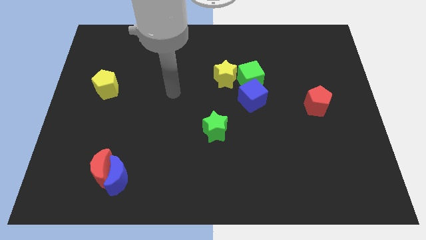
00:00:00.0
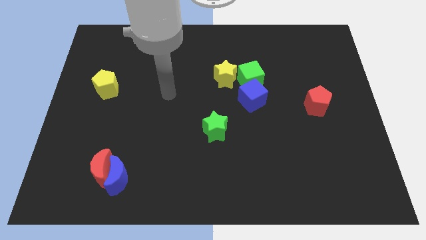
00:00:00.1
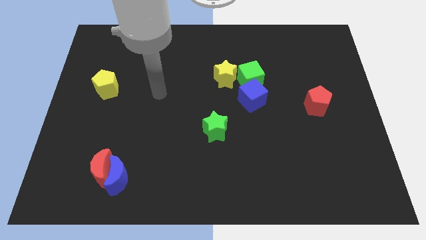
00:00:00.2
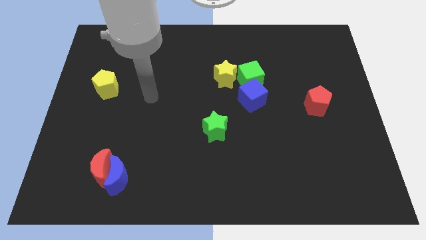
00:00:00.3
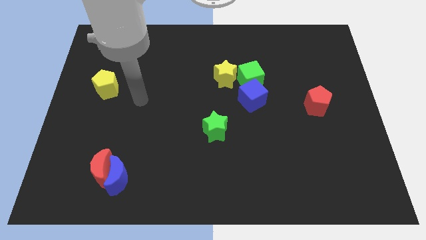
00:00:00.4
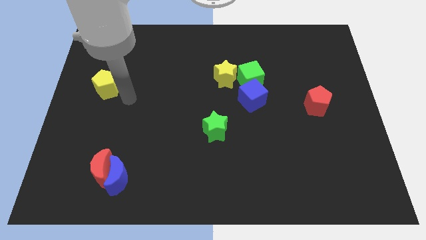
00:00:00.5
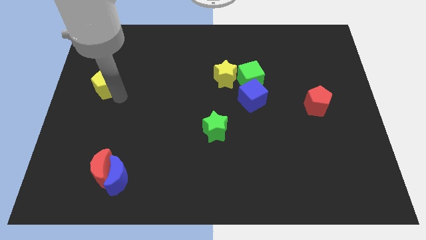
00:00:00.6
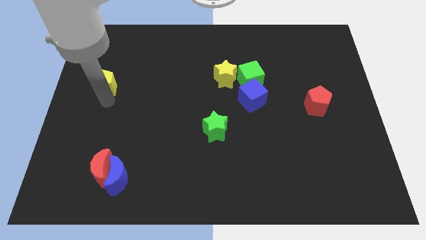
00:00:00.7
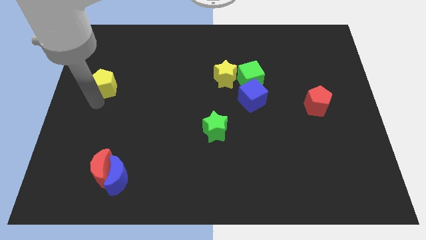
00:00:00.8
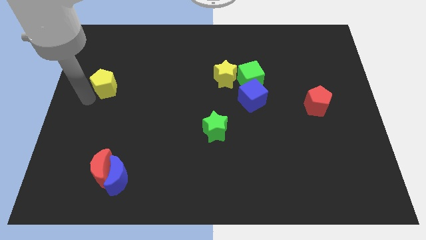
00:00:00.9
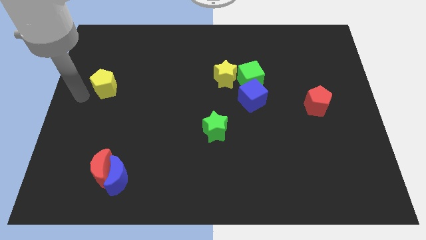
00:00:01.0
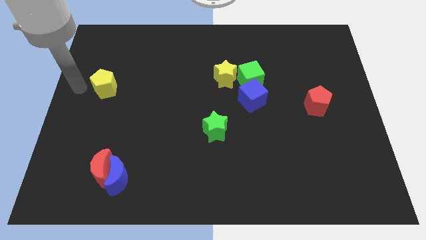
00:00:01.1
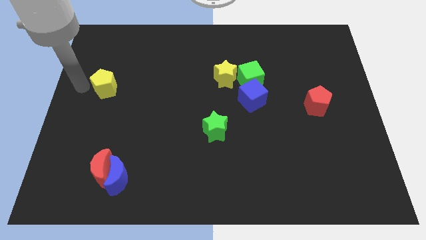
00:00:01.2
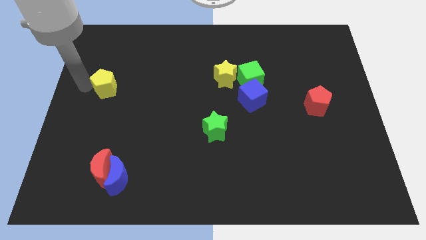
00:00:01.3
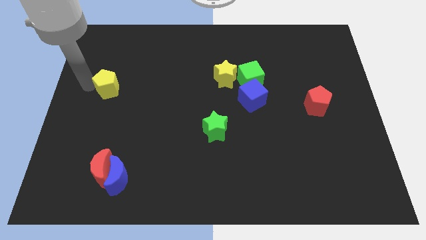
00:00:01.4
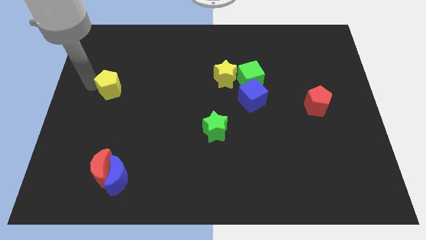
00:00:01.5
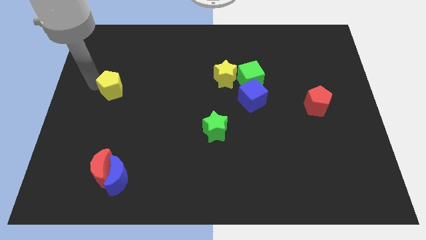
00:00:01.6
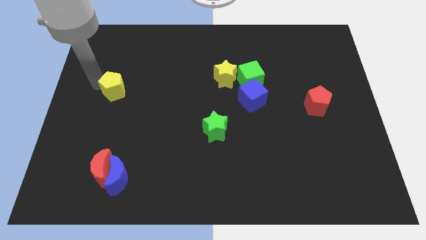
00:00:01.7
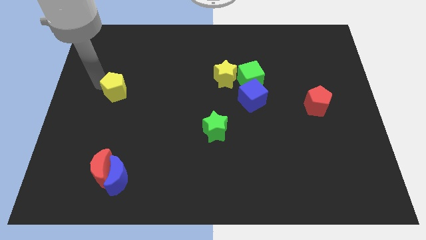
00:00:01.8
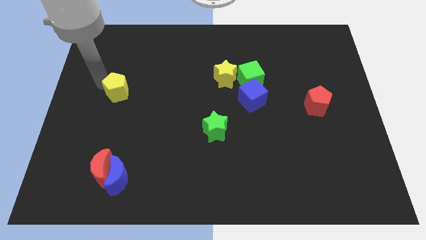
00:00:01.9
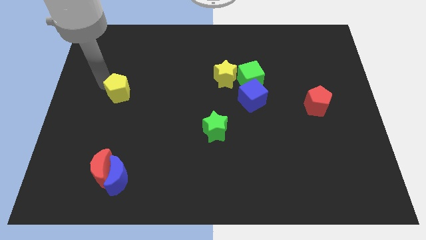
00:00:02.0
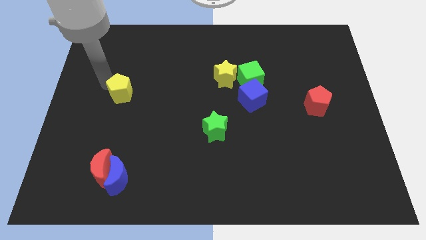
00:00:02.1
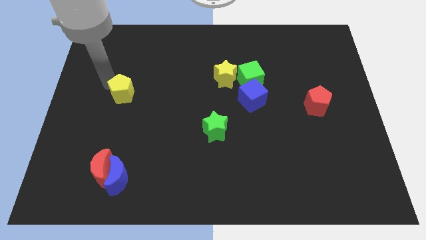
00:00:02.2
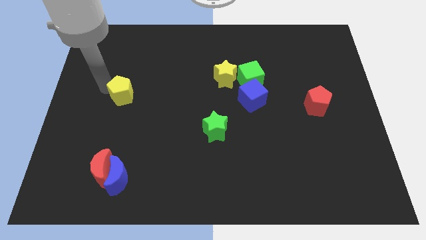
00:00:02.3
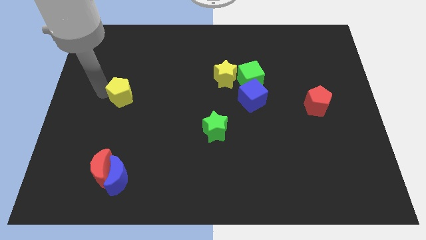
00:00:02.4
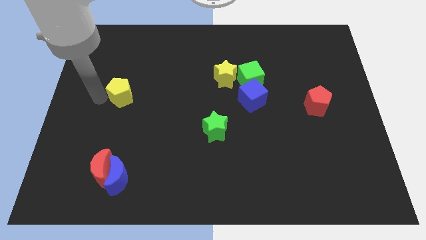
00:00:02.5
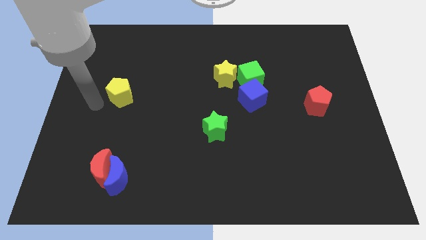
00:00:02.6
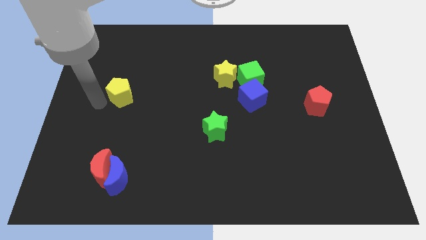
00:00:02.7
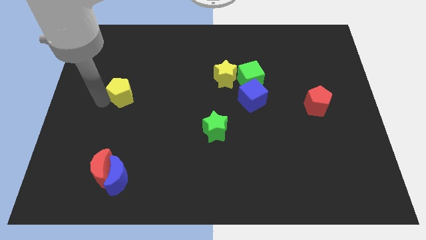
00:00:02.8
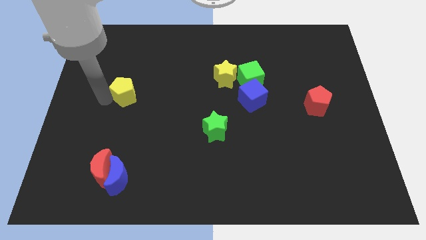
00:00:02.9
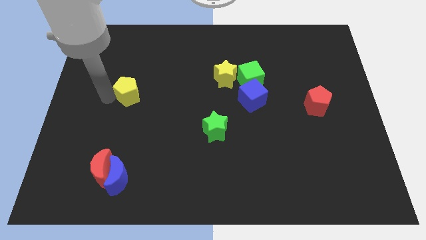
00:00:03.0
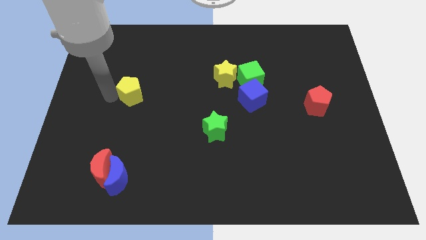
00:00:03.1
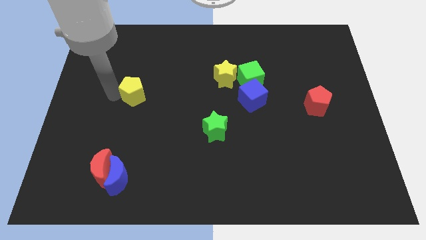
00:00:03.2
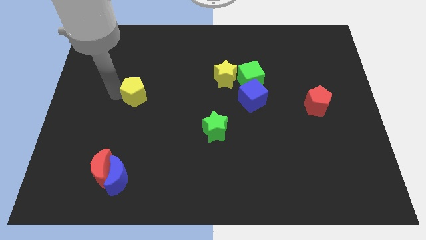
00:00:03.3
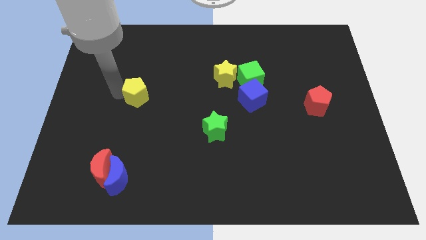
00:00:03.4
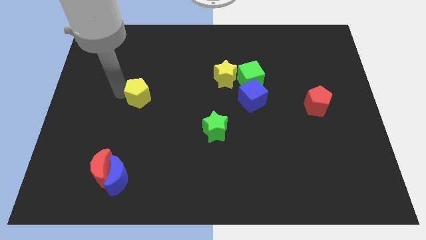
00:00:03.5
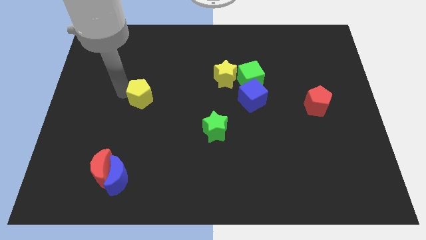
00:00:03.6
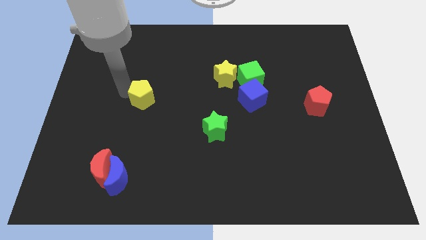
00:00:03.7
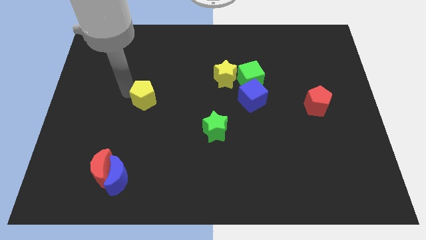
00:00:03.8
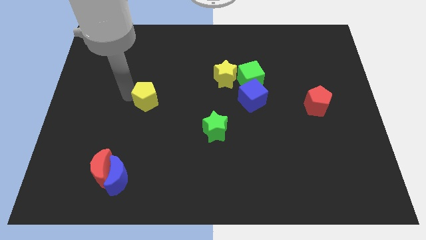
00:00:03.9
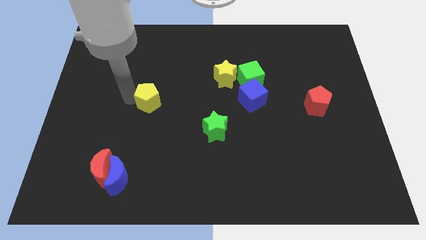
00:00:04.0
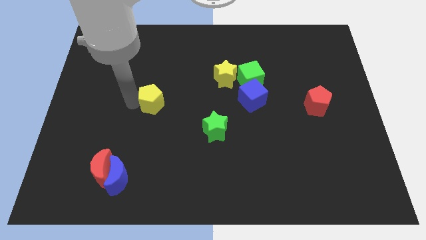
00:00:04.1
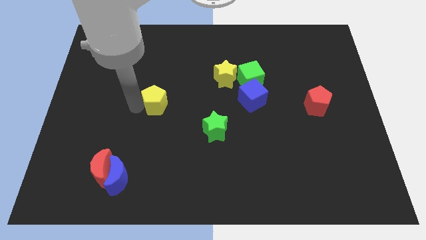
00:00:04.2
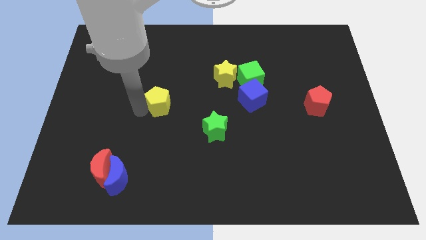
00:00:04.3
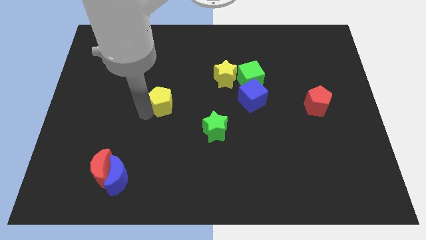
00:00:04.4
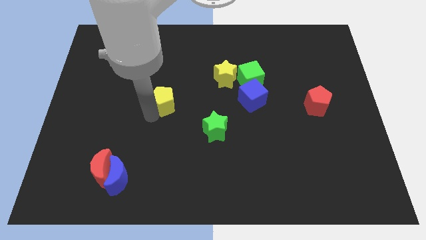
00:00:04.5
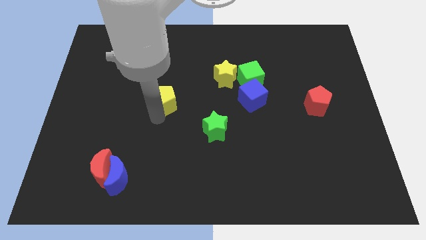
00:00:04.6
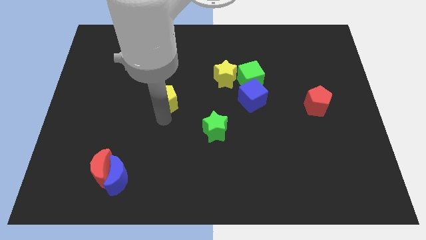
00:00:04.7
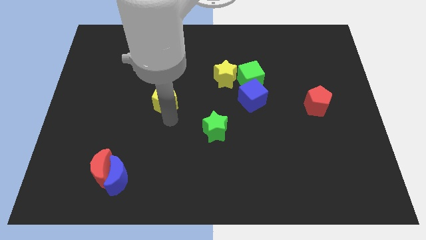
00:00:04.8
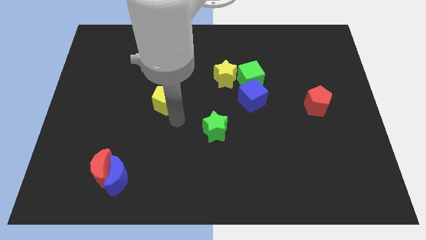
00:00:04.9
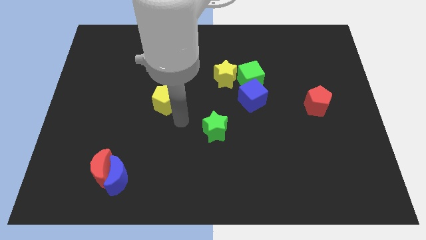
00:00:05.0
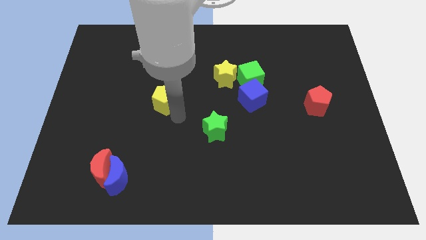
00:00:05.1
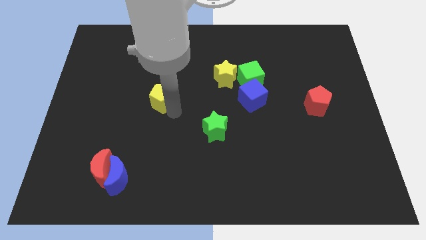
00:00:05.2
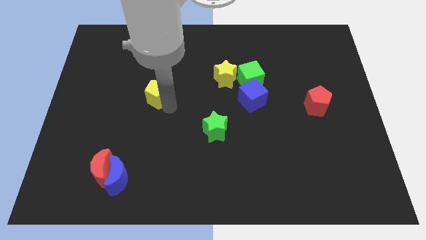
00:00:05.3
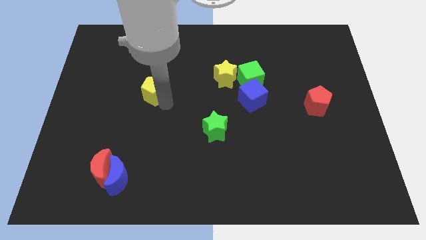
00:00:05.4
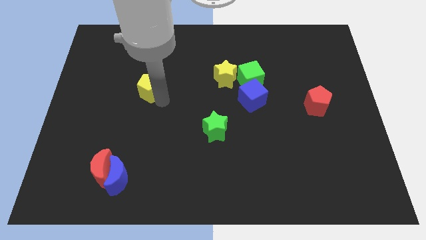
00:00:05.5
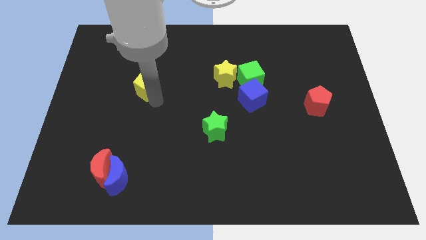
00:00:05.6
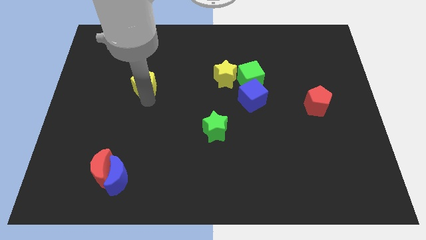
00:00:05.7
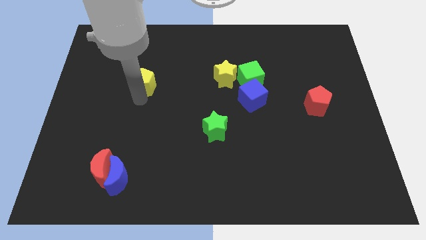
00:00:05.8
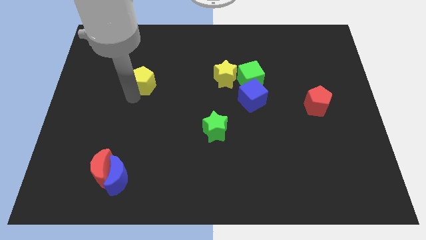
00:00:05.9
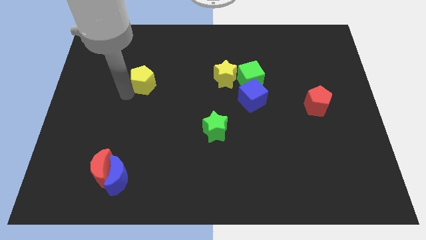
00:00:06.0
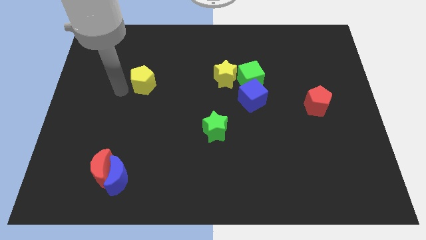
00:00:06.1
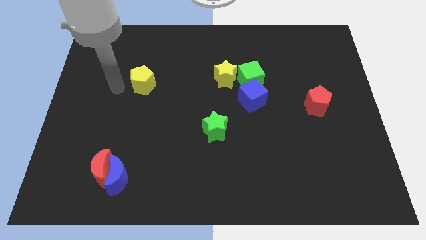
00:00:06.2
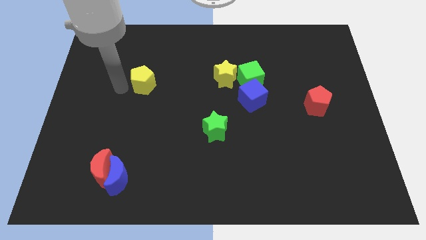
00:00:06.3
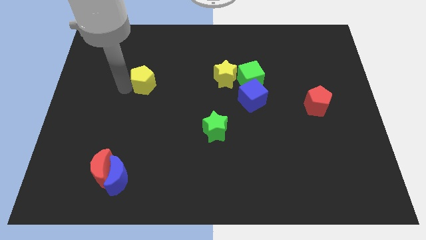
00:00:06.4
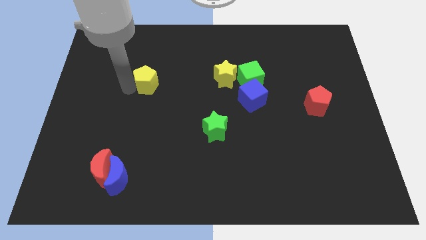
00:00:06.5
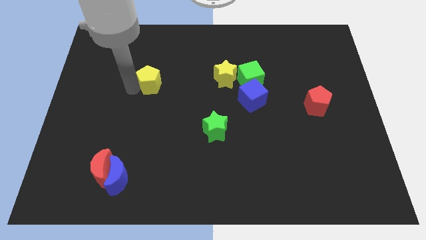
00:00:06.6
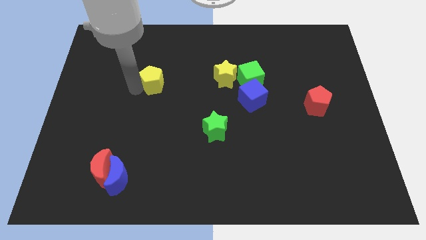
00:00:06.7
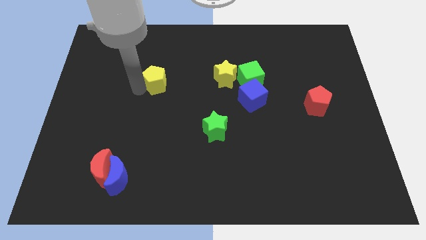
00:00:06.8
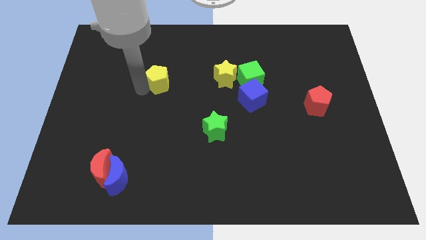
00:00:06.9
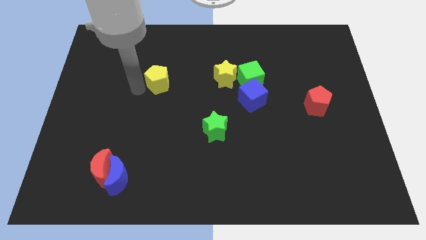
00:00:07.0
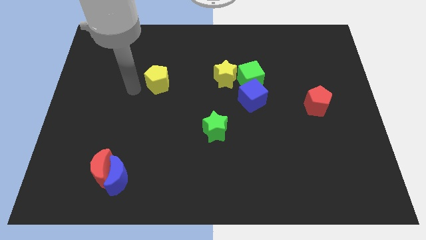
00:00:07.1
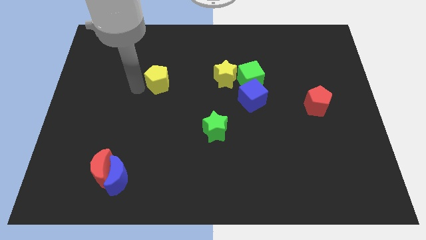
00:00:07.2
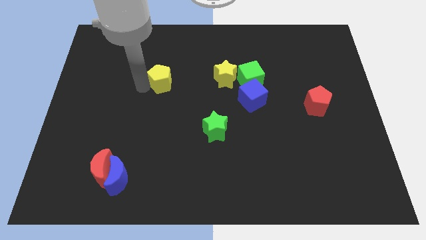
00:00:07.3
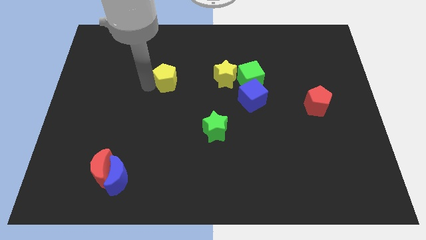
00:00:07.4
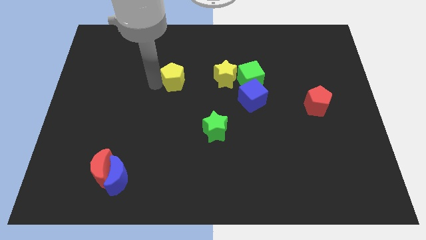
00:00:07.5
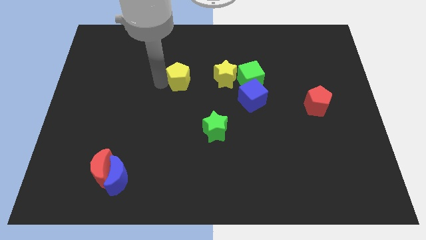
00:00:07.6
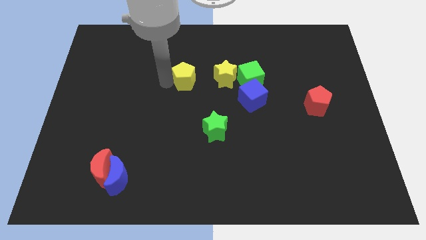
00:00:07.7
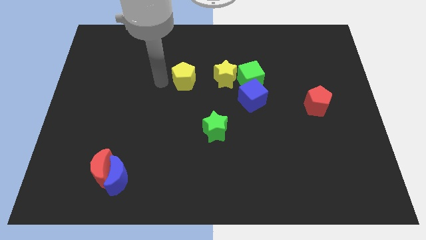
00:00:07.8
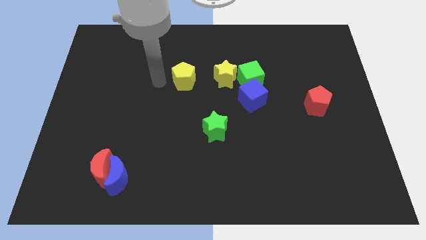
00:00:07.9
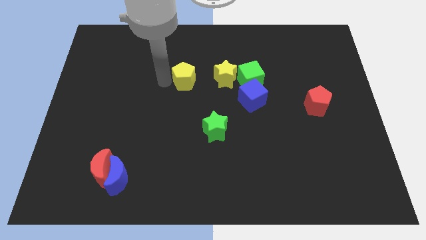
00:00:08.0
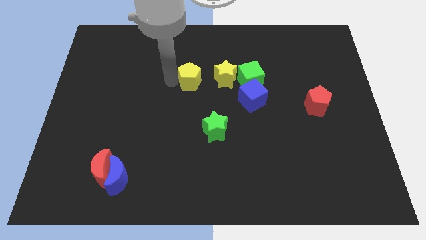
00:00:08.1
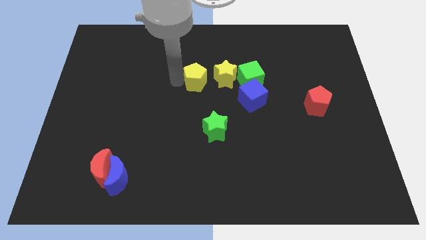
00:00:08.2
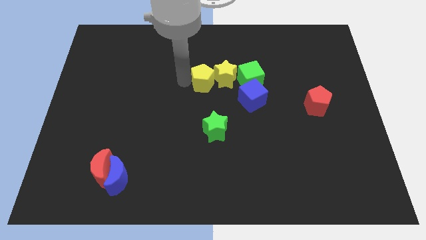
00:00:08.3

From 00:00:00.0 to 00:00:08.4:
move the yellow pentagon close to the yellow star
